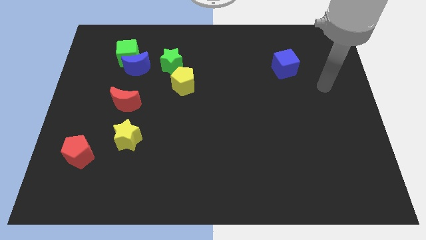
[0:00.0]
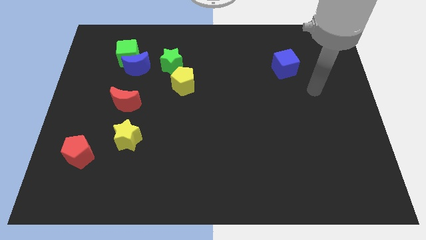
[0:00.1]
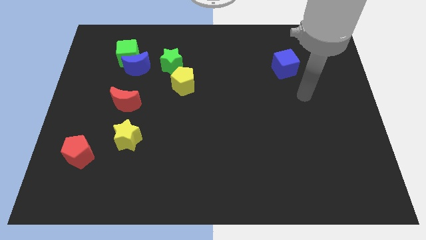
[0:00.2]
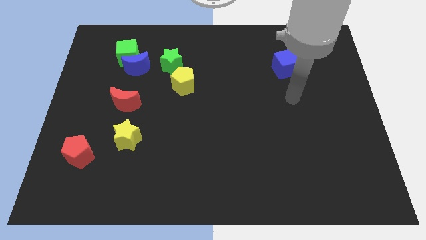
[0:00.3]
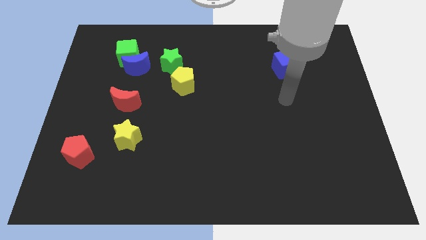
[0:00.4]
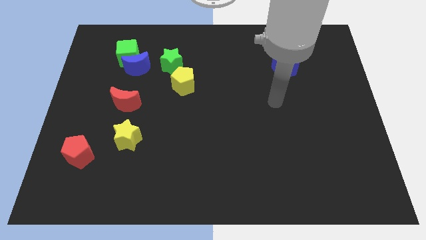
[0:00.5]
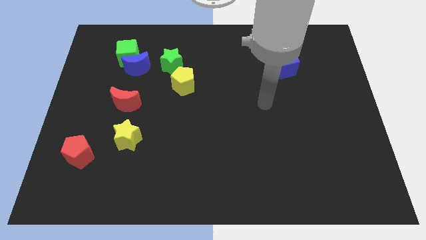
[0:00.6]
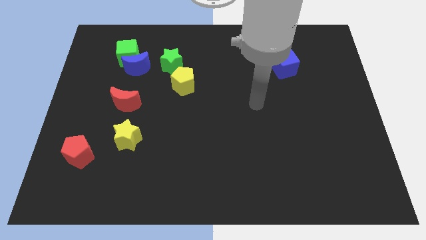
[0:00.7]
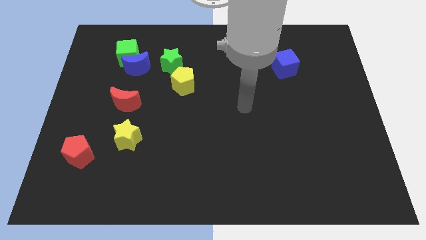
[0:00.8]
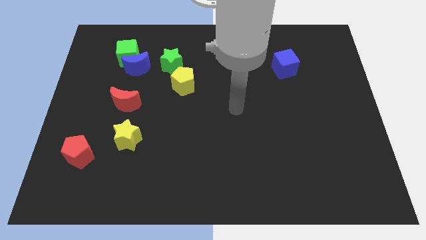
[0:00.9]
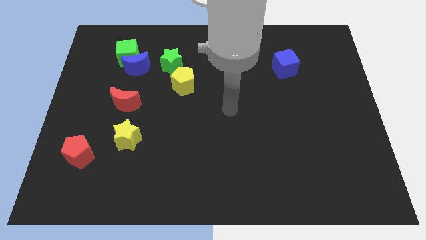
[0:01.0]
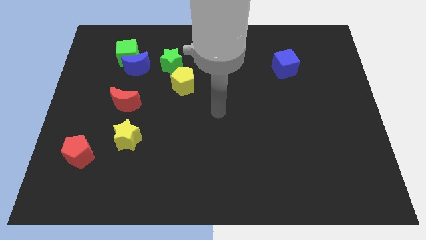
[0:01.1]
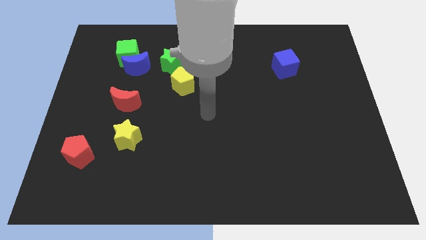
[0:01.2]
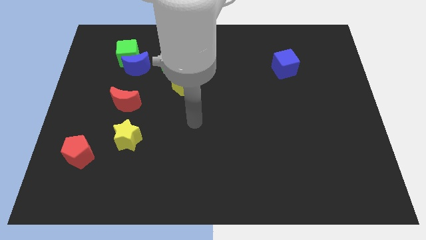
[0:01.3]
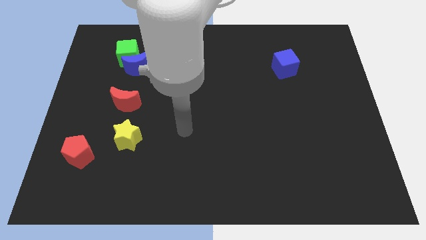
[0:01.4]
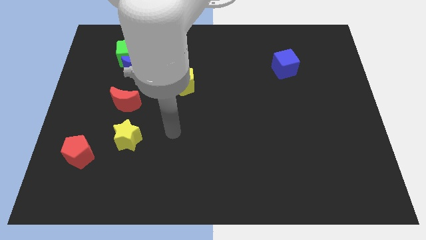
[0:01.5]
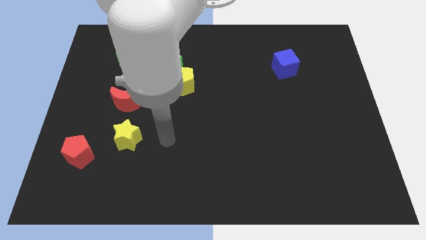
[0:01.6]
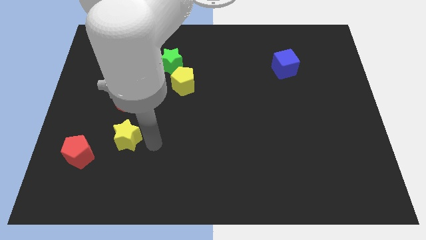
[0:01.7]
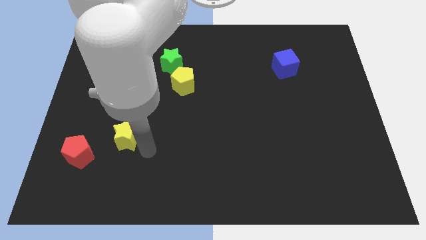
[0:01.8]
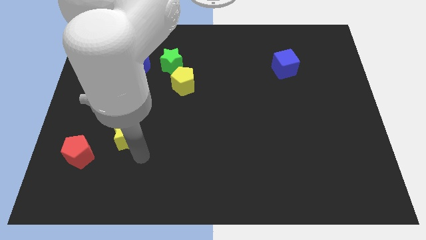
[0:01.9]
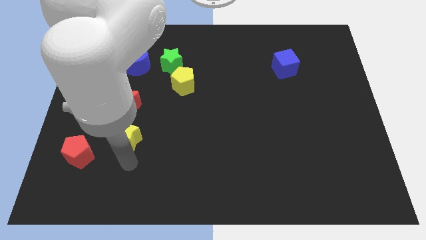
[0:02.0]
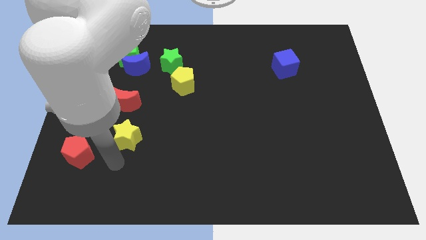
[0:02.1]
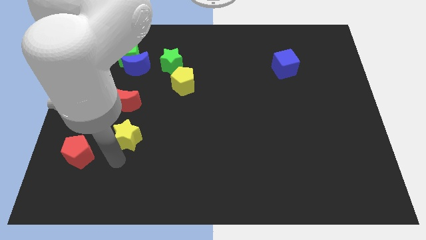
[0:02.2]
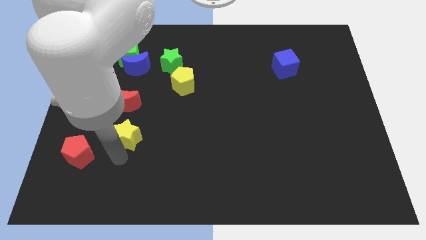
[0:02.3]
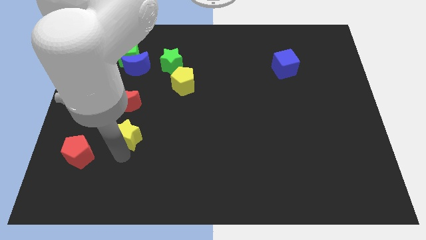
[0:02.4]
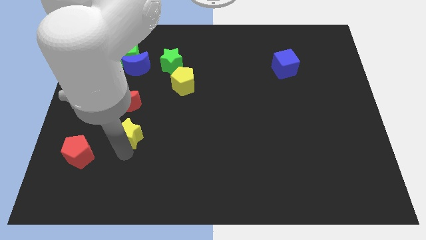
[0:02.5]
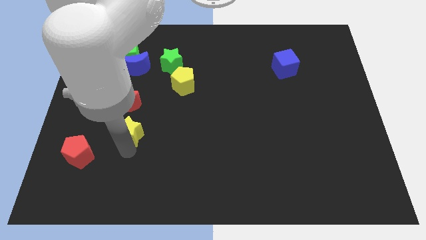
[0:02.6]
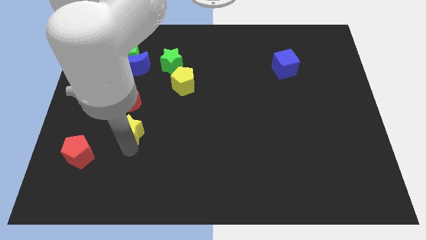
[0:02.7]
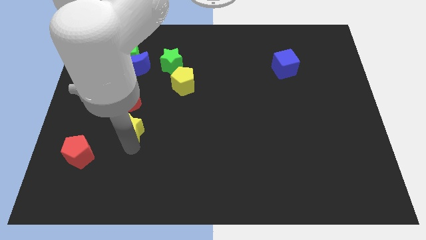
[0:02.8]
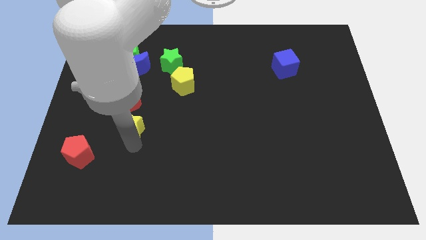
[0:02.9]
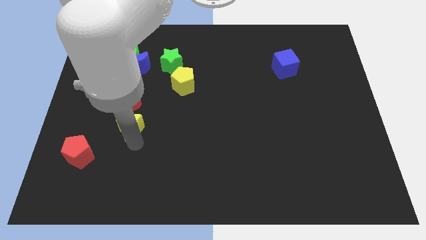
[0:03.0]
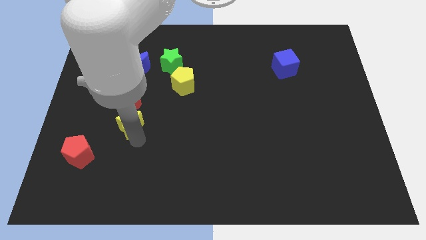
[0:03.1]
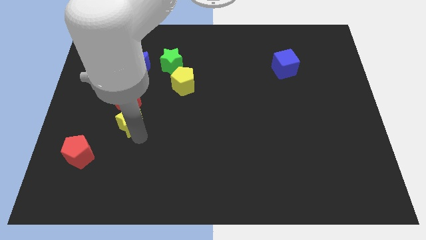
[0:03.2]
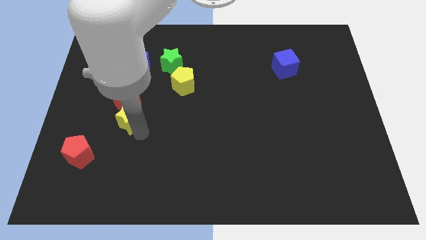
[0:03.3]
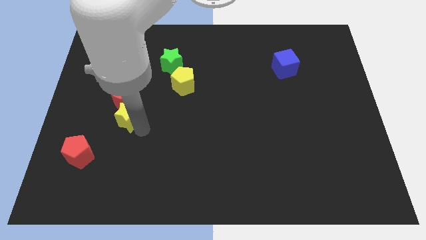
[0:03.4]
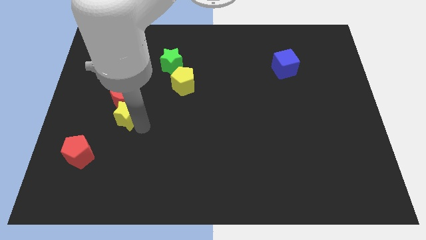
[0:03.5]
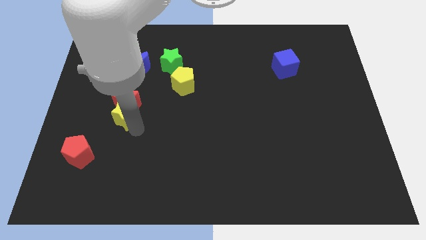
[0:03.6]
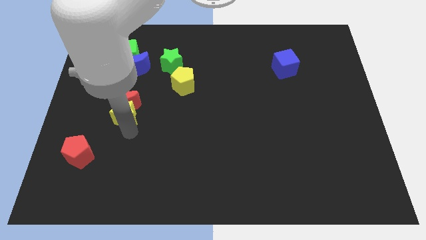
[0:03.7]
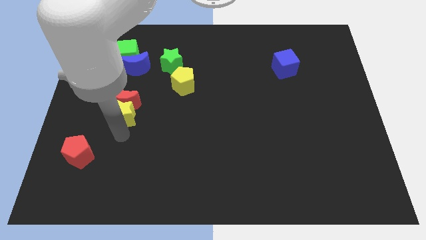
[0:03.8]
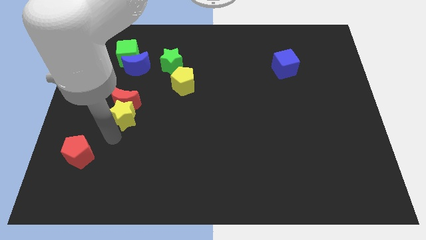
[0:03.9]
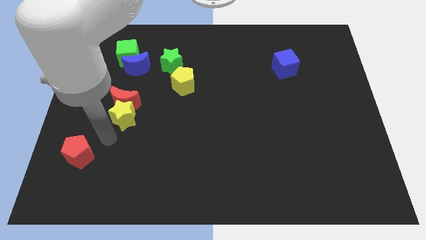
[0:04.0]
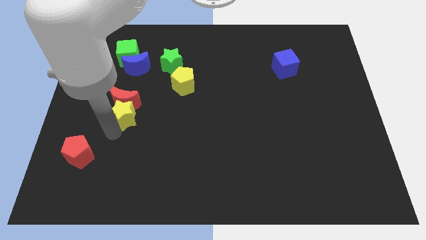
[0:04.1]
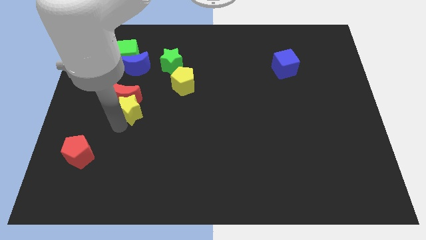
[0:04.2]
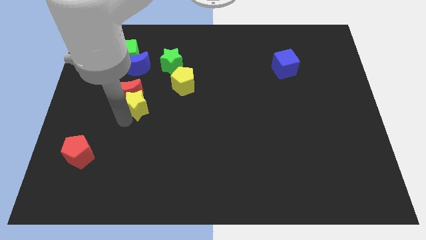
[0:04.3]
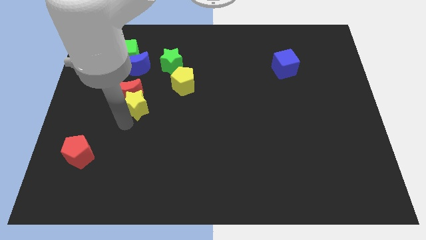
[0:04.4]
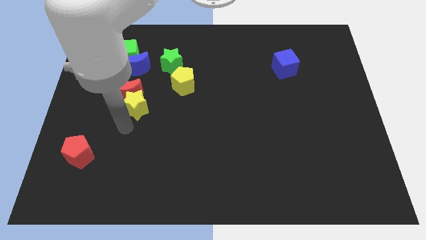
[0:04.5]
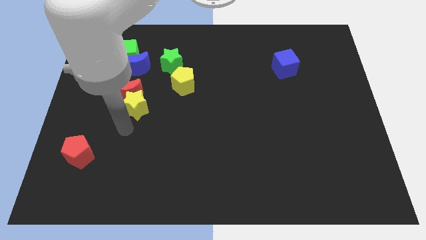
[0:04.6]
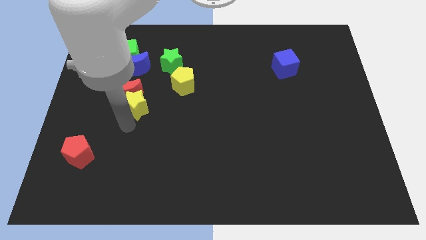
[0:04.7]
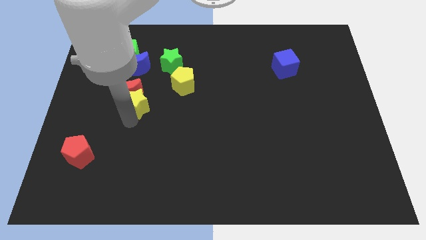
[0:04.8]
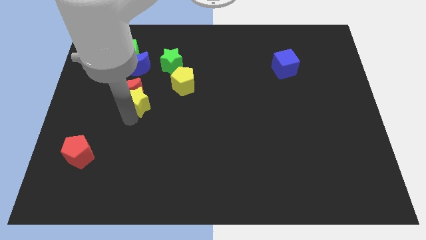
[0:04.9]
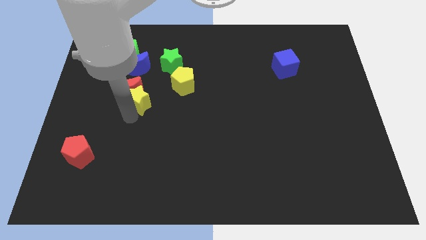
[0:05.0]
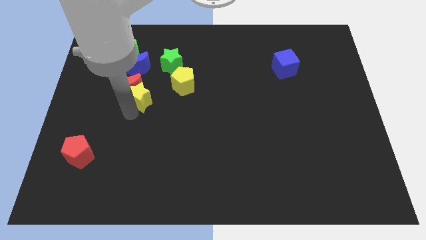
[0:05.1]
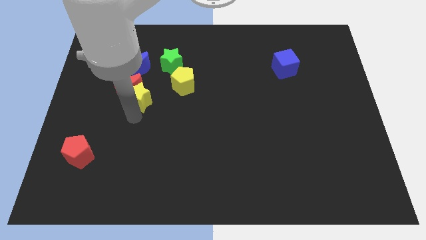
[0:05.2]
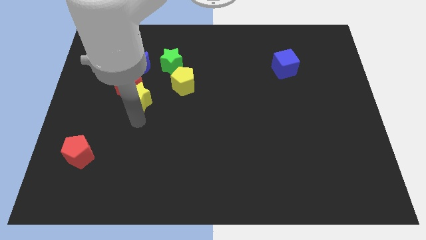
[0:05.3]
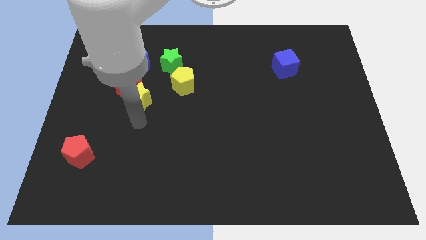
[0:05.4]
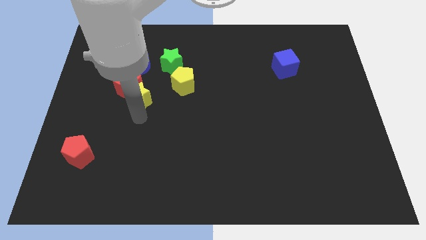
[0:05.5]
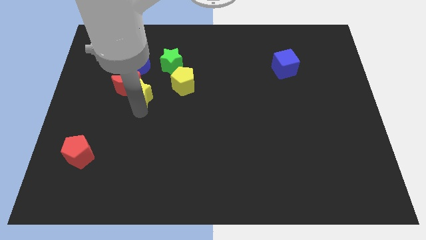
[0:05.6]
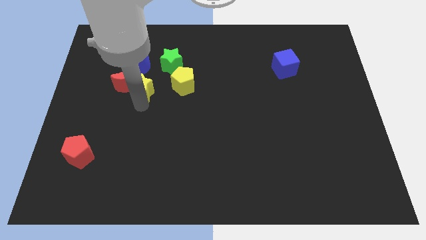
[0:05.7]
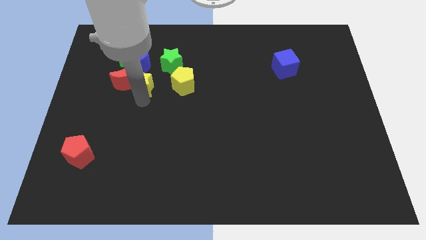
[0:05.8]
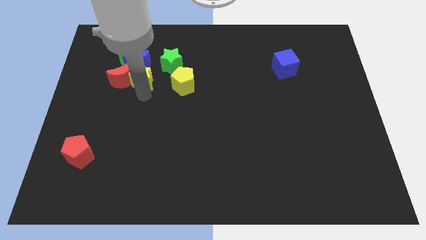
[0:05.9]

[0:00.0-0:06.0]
put the yellow star towards the blue moon

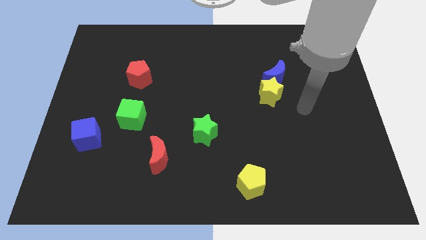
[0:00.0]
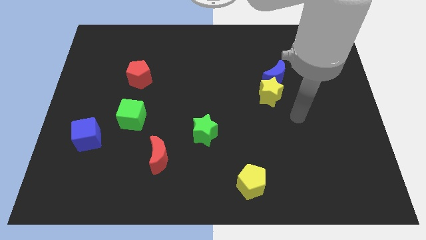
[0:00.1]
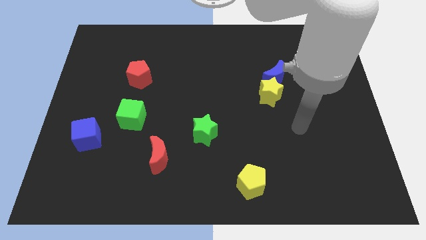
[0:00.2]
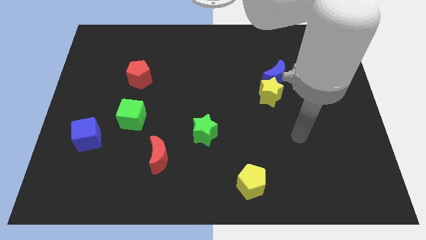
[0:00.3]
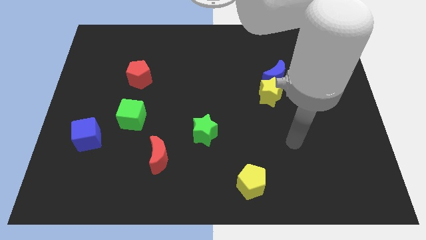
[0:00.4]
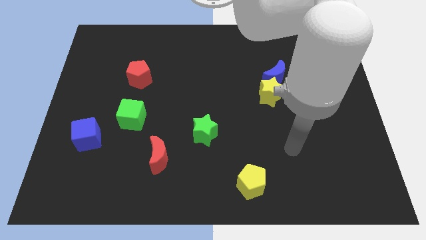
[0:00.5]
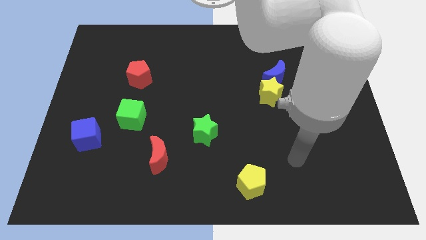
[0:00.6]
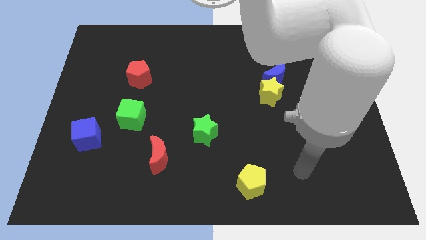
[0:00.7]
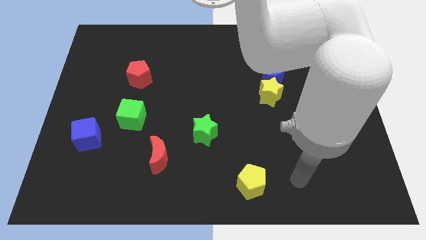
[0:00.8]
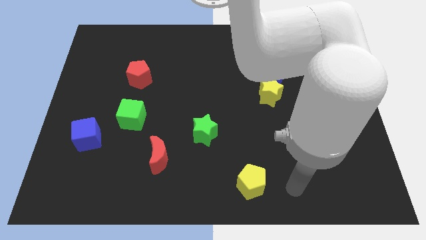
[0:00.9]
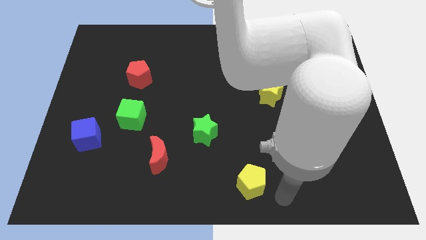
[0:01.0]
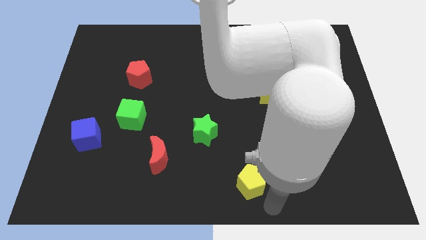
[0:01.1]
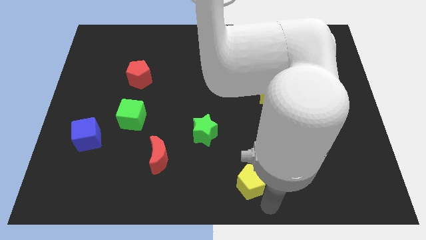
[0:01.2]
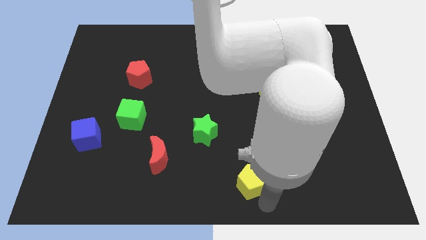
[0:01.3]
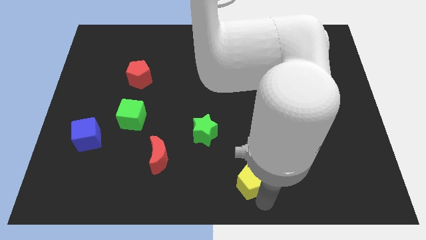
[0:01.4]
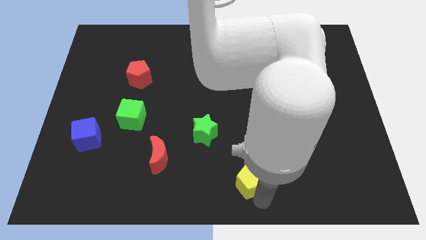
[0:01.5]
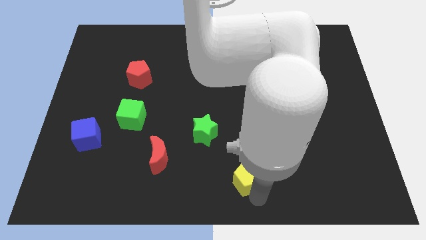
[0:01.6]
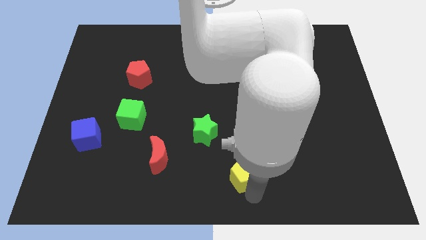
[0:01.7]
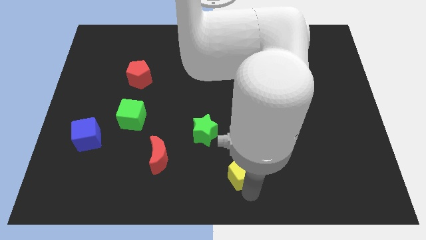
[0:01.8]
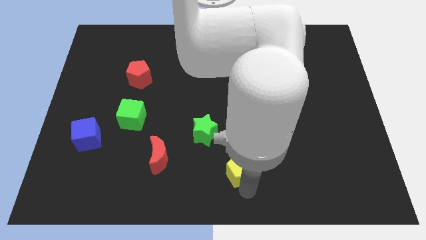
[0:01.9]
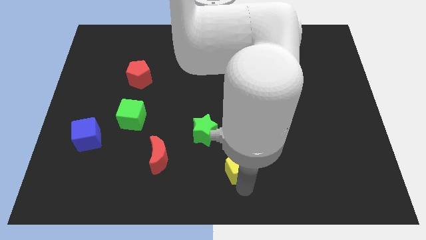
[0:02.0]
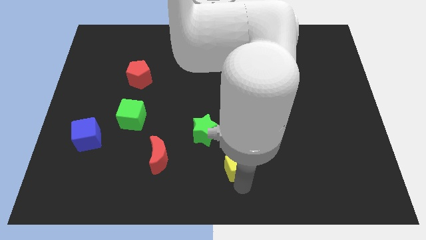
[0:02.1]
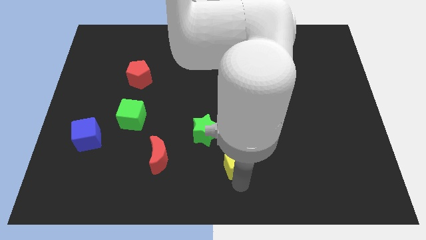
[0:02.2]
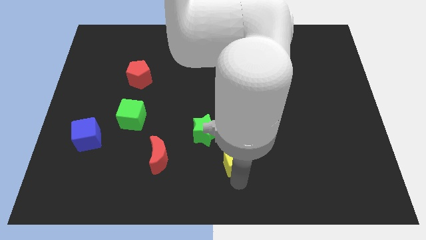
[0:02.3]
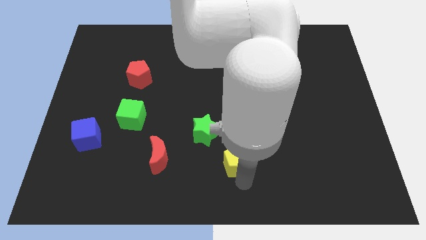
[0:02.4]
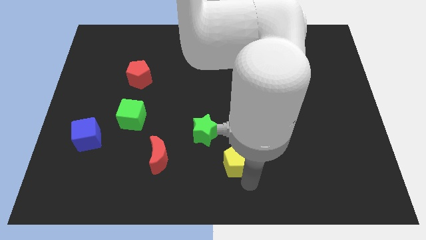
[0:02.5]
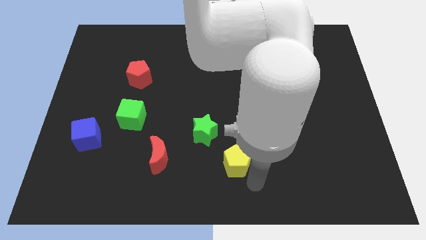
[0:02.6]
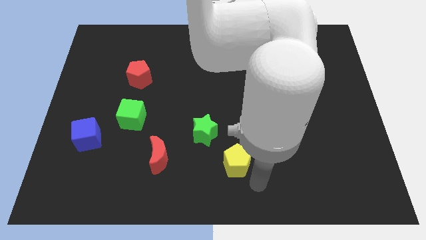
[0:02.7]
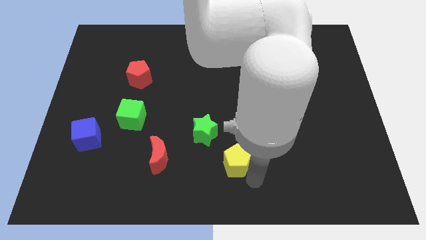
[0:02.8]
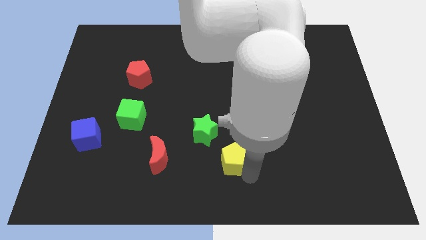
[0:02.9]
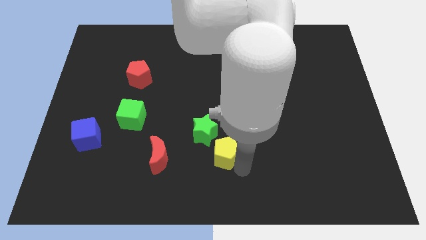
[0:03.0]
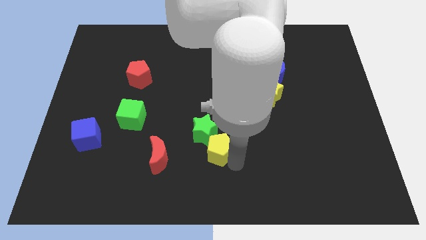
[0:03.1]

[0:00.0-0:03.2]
move the yellow pentagon close to the green star
